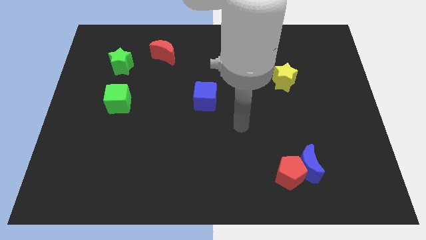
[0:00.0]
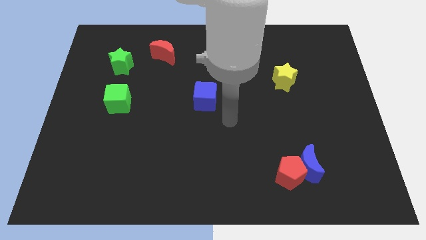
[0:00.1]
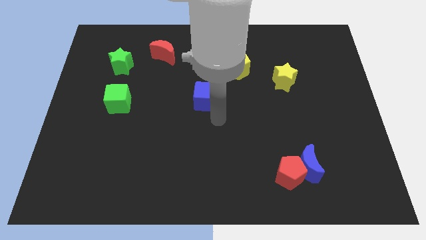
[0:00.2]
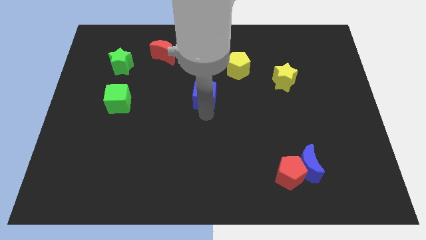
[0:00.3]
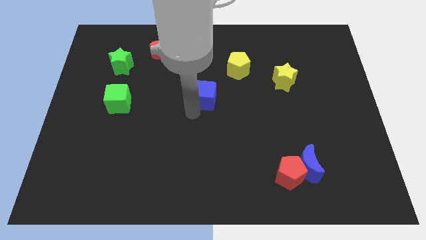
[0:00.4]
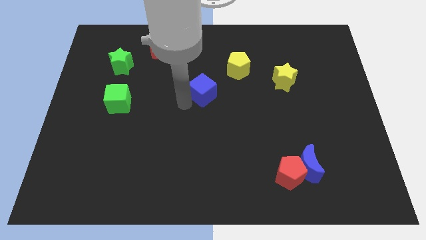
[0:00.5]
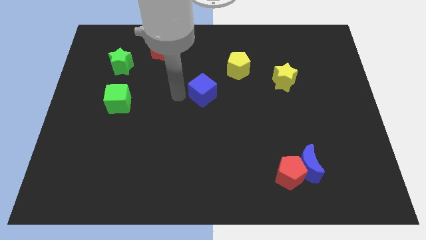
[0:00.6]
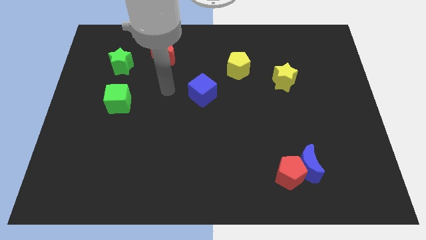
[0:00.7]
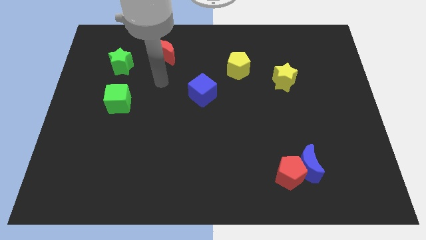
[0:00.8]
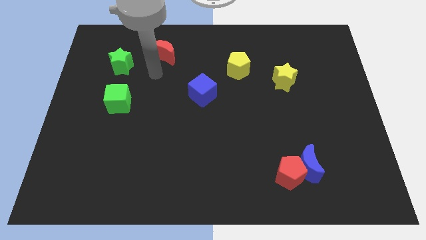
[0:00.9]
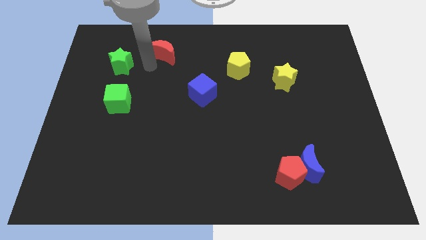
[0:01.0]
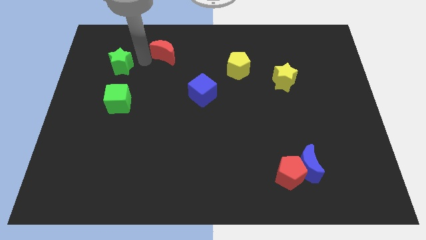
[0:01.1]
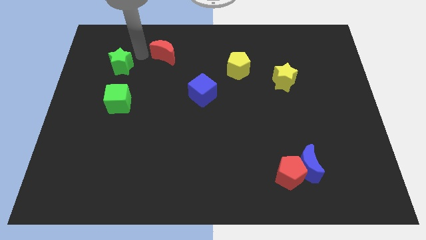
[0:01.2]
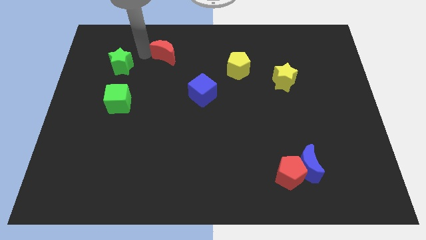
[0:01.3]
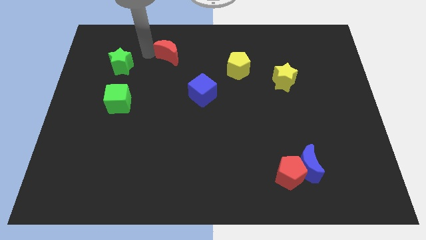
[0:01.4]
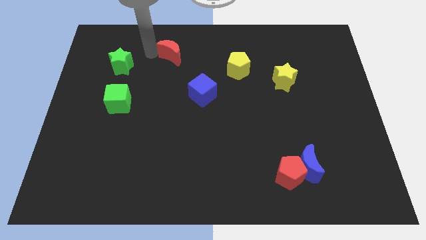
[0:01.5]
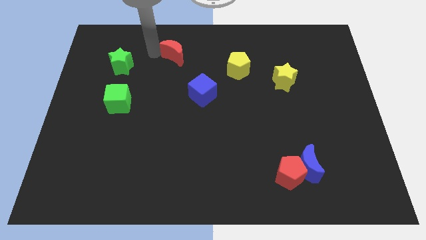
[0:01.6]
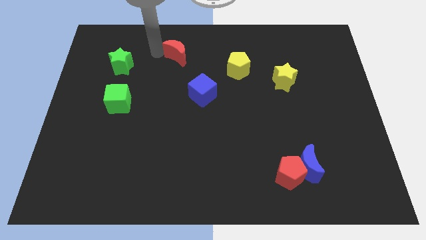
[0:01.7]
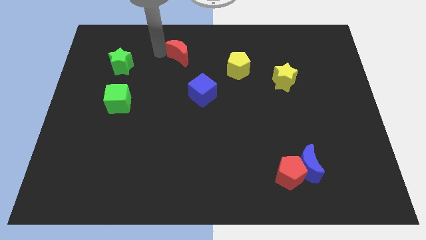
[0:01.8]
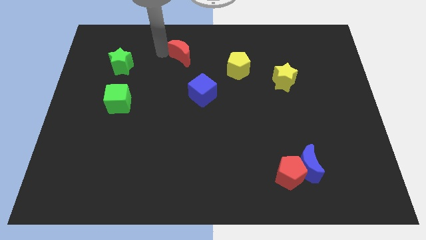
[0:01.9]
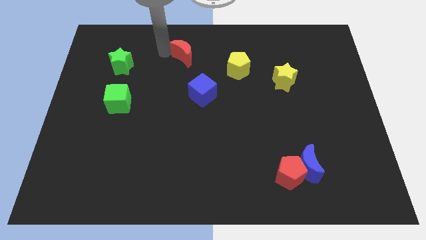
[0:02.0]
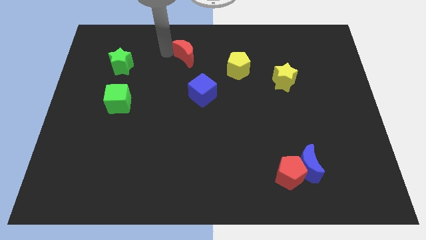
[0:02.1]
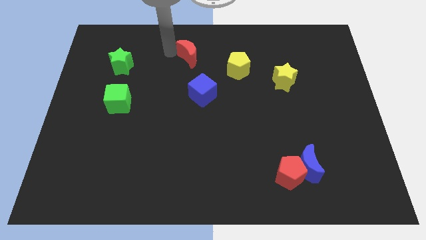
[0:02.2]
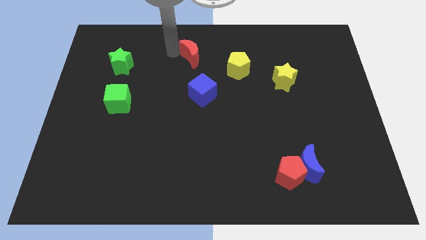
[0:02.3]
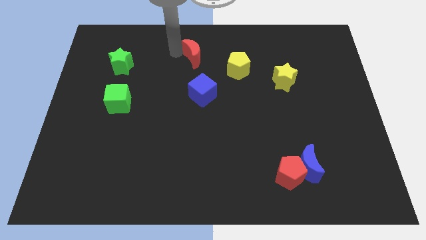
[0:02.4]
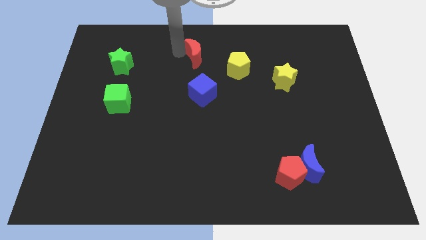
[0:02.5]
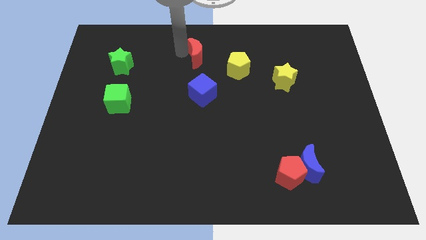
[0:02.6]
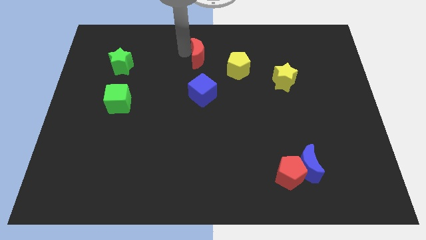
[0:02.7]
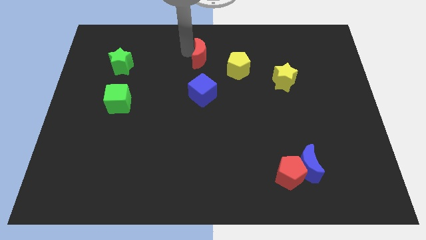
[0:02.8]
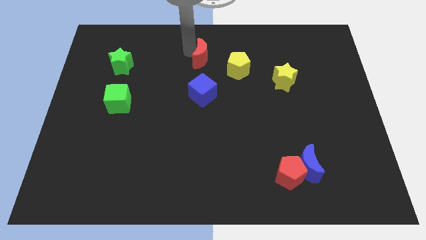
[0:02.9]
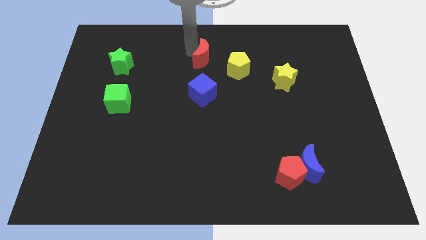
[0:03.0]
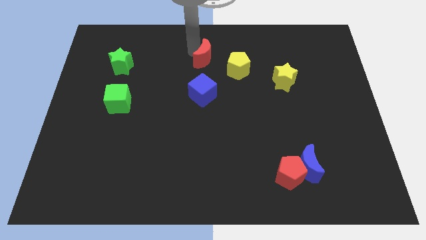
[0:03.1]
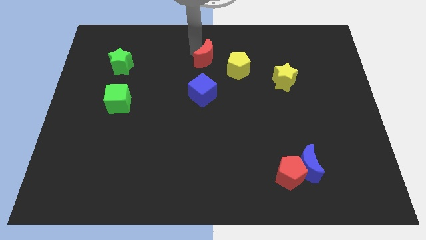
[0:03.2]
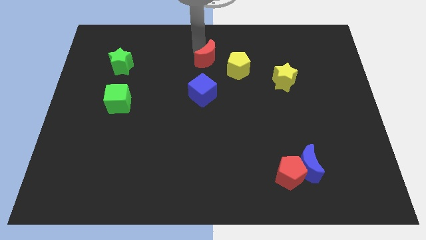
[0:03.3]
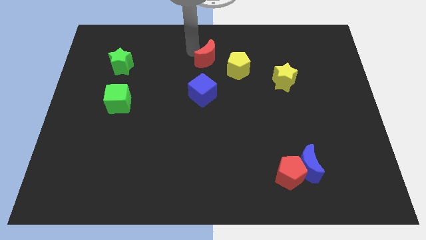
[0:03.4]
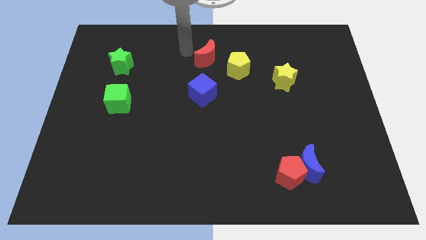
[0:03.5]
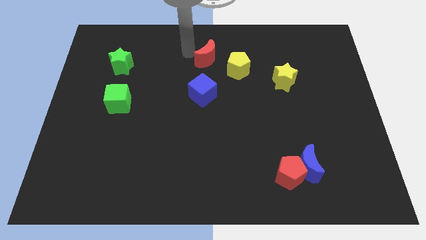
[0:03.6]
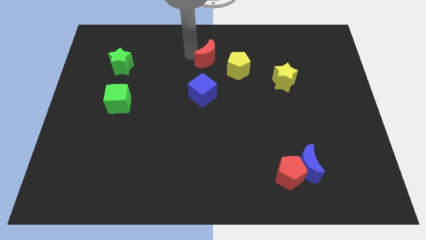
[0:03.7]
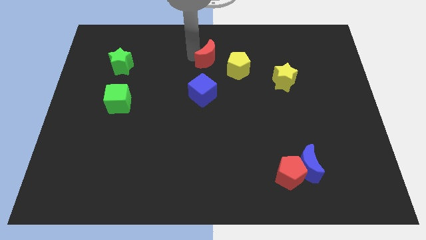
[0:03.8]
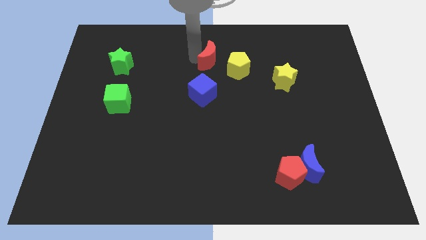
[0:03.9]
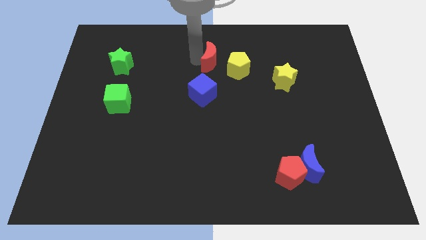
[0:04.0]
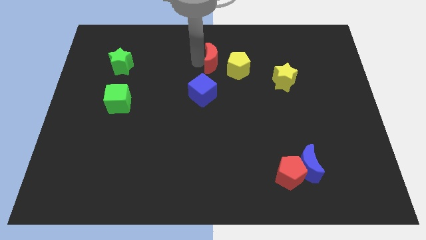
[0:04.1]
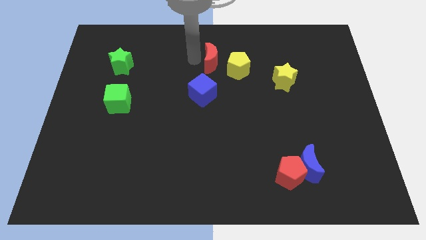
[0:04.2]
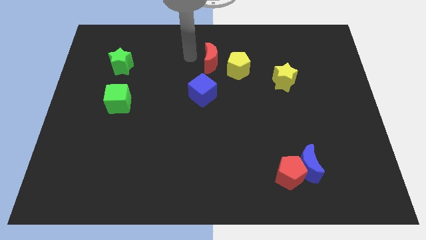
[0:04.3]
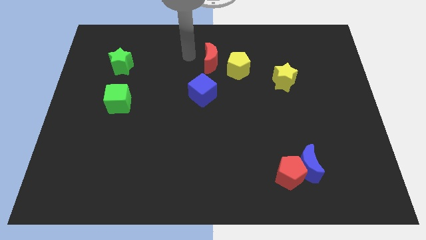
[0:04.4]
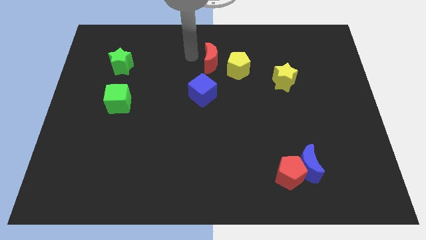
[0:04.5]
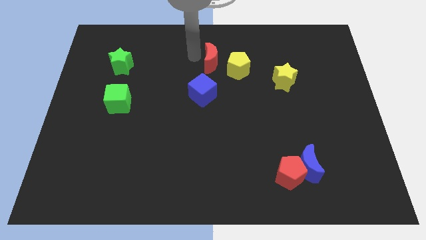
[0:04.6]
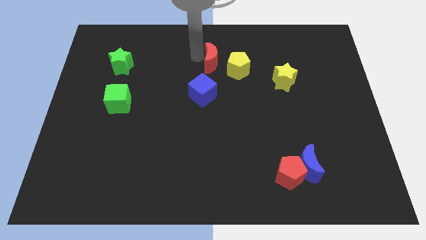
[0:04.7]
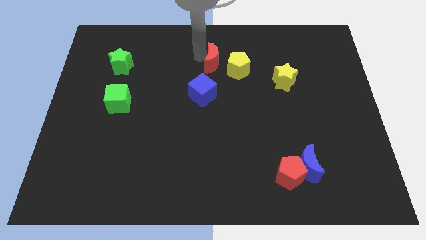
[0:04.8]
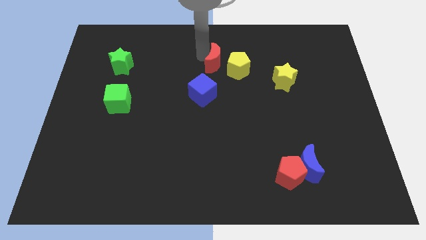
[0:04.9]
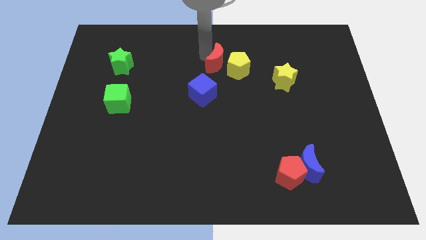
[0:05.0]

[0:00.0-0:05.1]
put the red moon towards the yellow pentagon

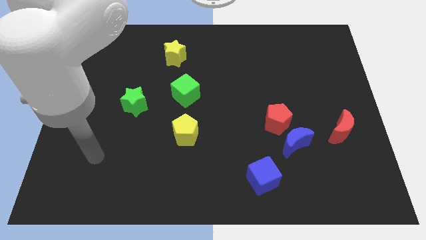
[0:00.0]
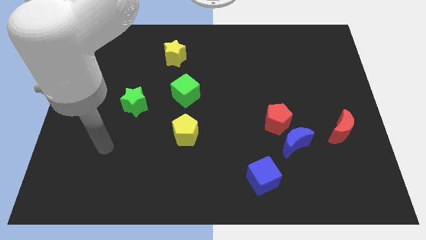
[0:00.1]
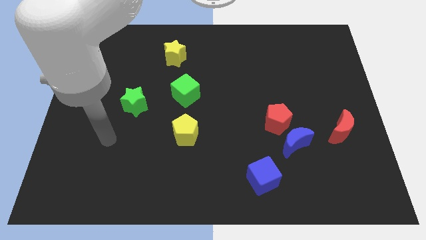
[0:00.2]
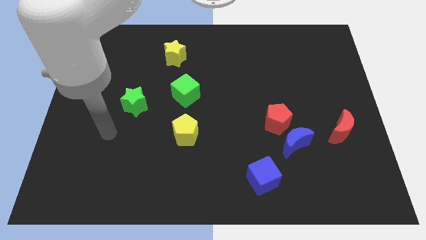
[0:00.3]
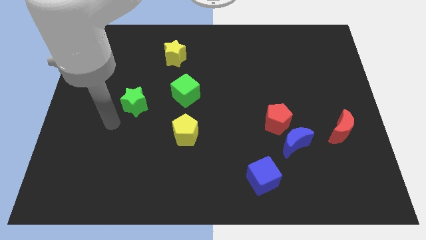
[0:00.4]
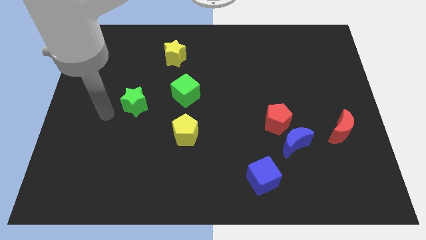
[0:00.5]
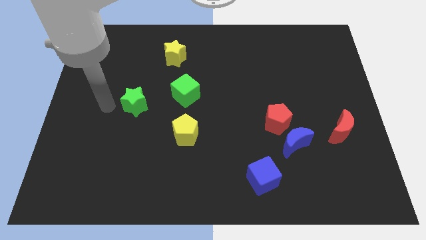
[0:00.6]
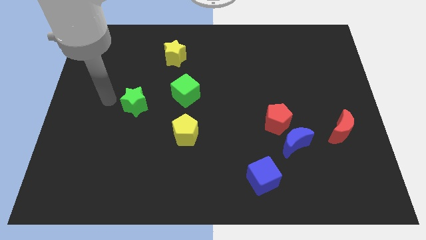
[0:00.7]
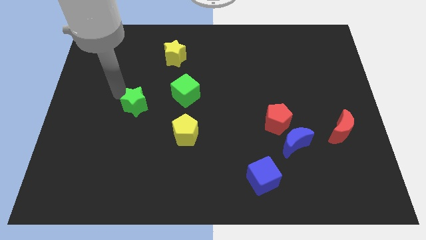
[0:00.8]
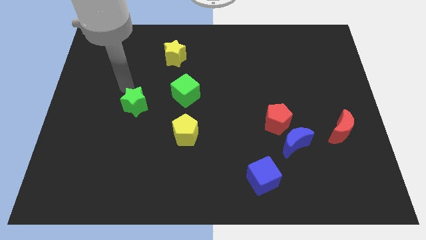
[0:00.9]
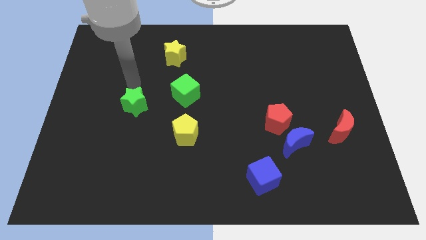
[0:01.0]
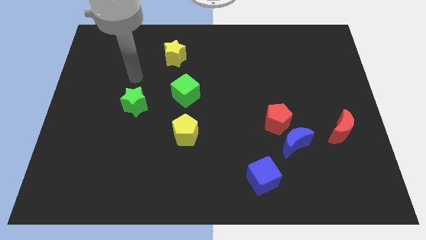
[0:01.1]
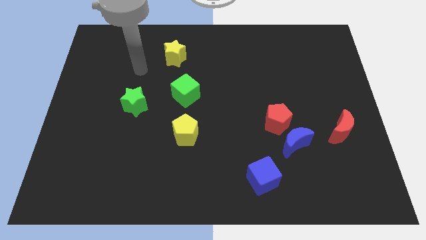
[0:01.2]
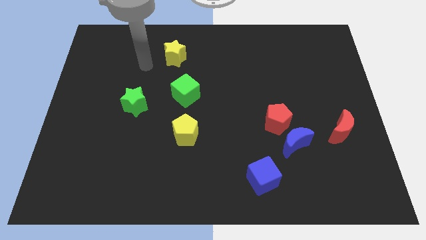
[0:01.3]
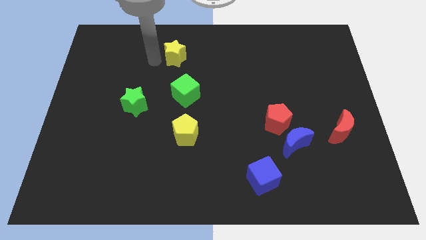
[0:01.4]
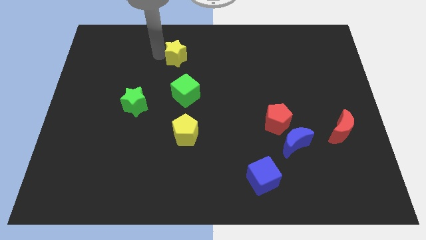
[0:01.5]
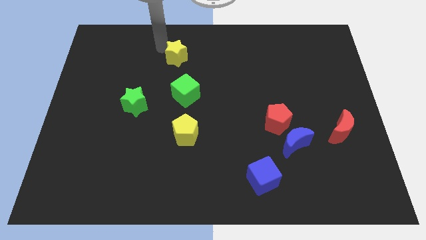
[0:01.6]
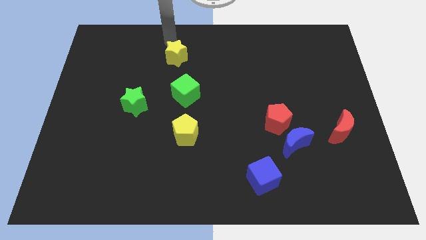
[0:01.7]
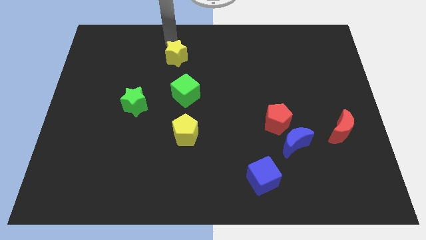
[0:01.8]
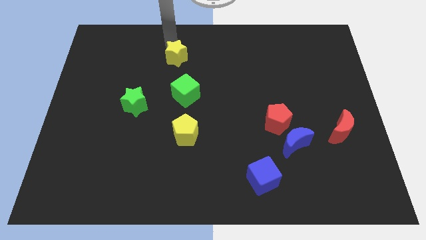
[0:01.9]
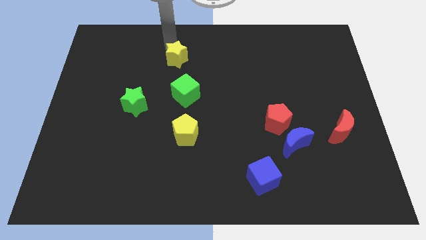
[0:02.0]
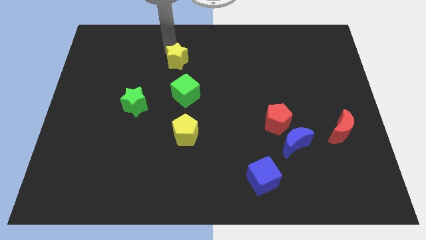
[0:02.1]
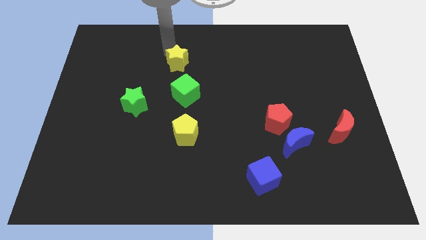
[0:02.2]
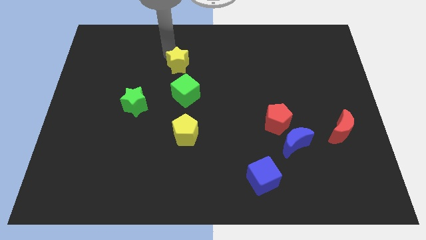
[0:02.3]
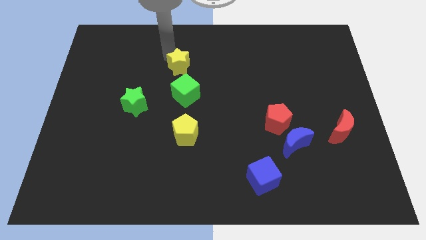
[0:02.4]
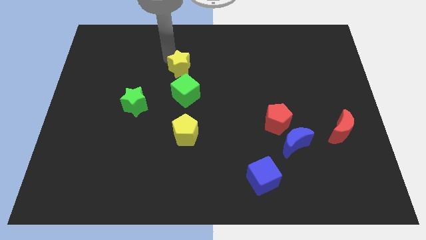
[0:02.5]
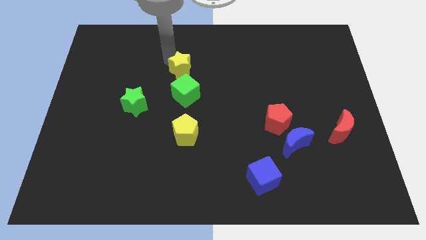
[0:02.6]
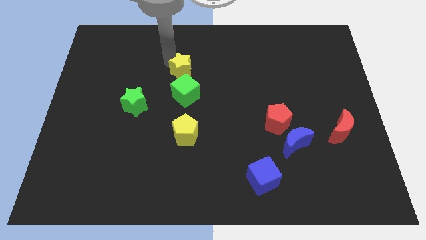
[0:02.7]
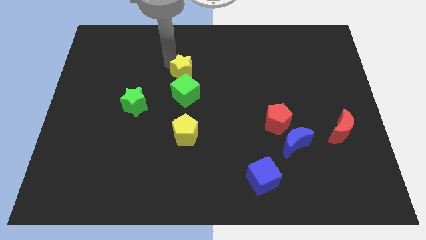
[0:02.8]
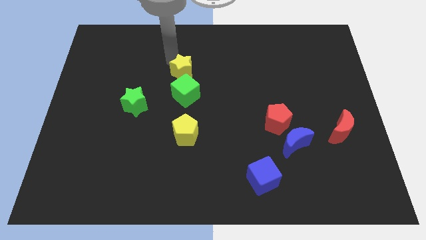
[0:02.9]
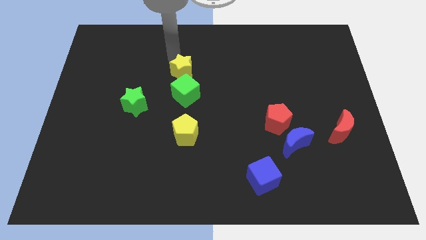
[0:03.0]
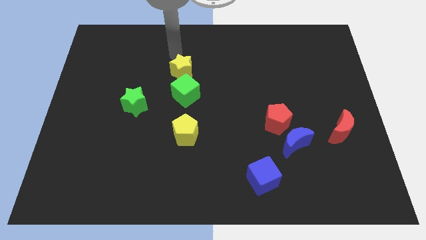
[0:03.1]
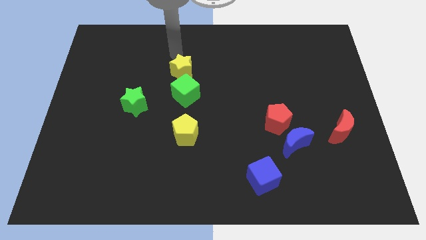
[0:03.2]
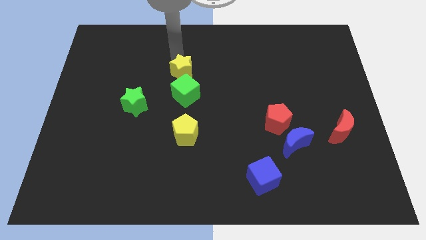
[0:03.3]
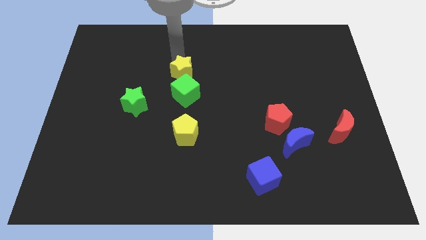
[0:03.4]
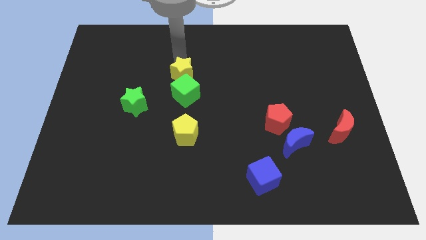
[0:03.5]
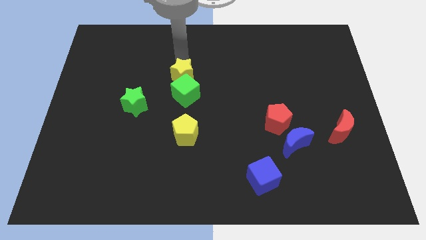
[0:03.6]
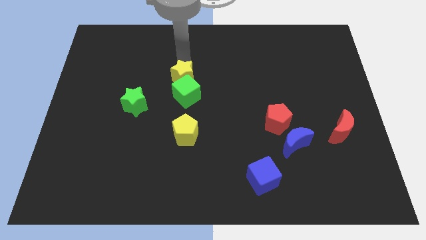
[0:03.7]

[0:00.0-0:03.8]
put the yellow star next to the green cube
